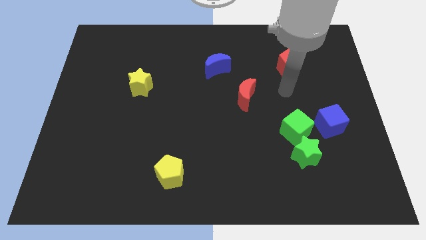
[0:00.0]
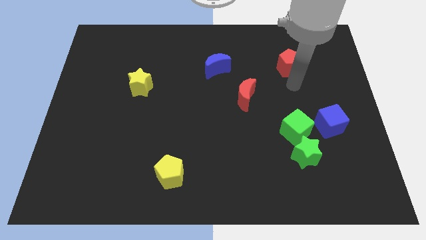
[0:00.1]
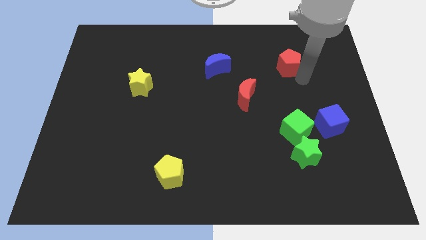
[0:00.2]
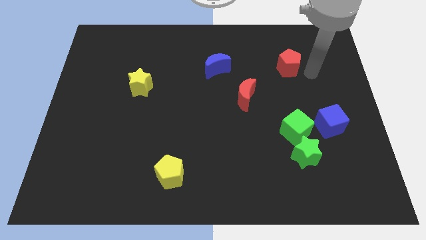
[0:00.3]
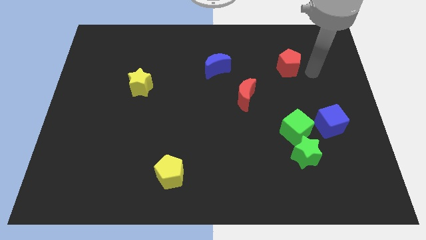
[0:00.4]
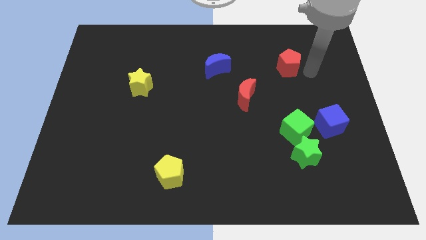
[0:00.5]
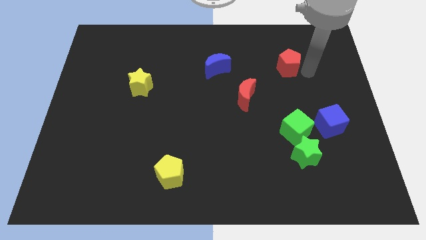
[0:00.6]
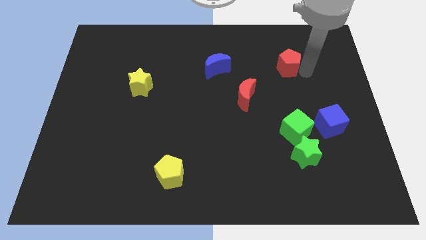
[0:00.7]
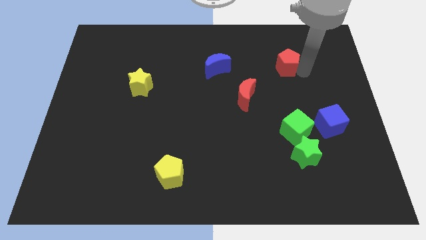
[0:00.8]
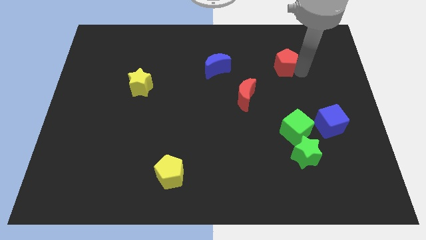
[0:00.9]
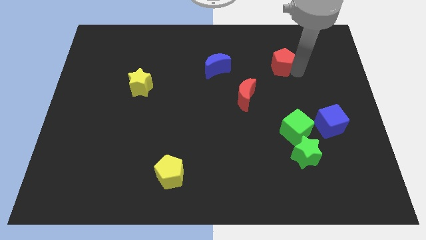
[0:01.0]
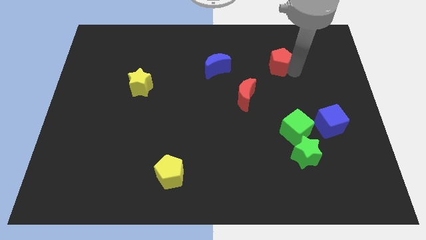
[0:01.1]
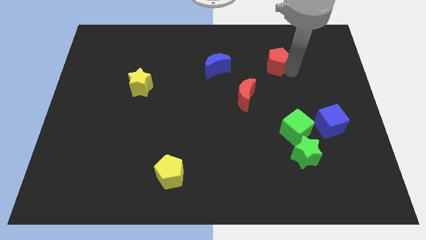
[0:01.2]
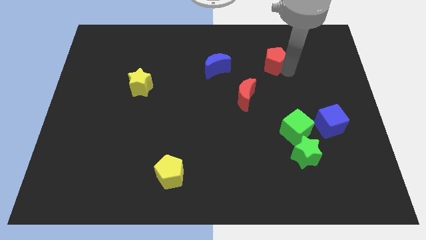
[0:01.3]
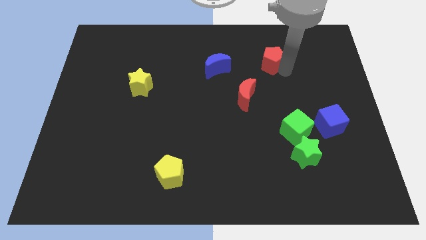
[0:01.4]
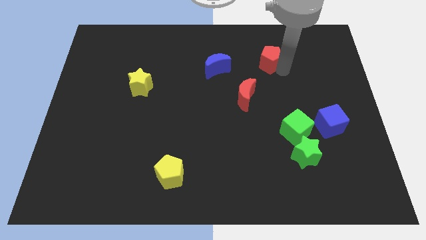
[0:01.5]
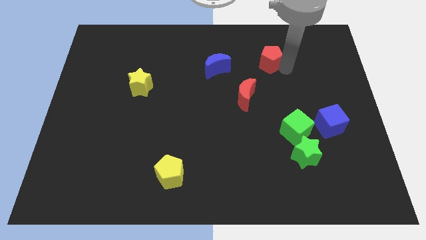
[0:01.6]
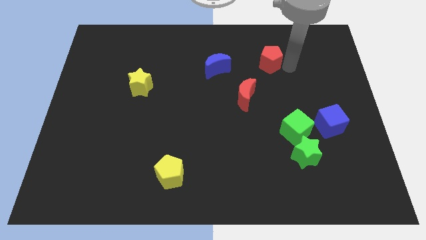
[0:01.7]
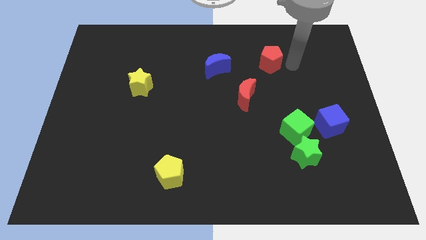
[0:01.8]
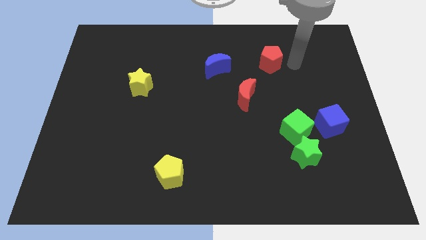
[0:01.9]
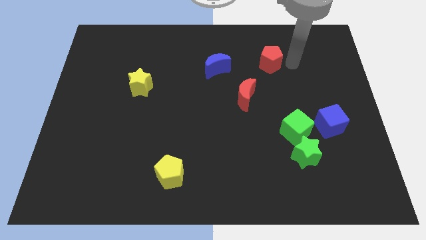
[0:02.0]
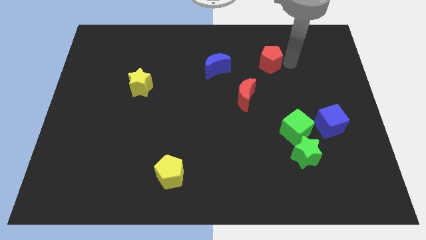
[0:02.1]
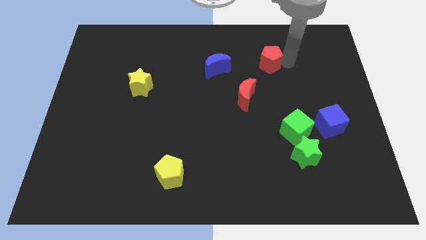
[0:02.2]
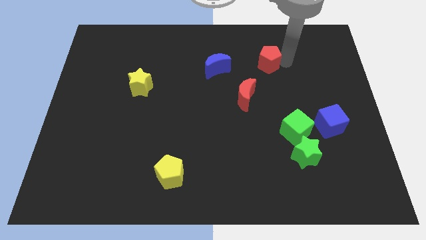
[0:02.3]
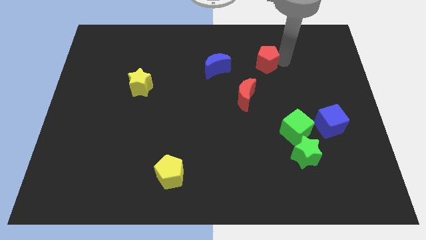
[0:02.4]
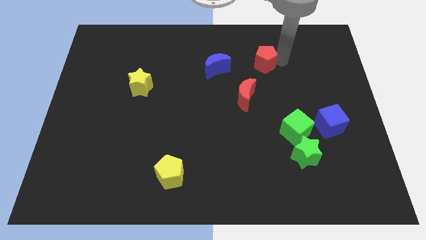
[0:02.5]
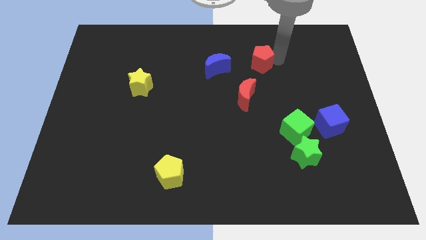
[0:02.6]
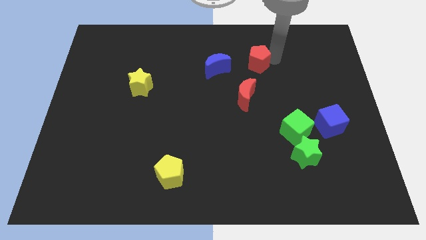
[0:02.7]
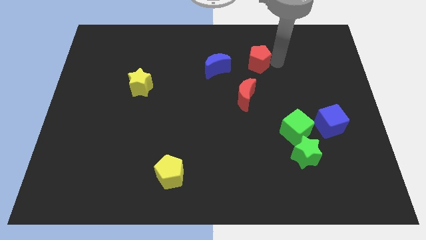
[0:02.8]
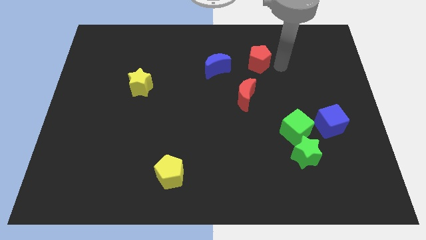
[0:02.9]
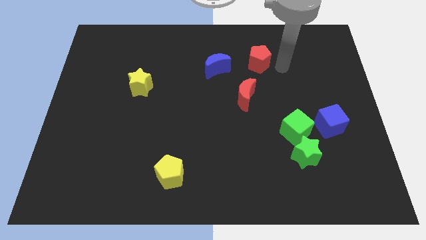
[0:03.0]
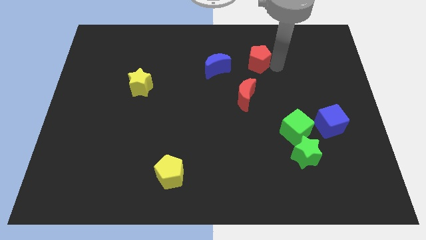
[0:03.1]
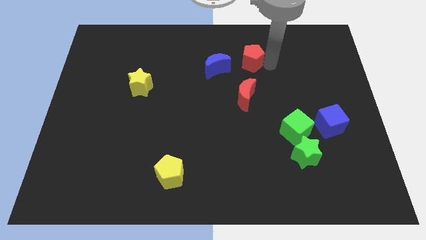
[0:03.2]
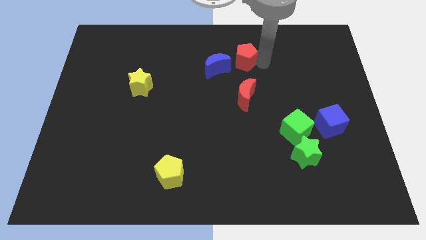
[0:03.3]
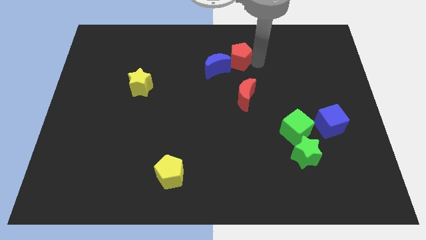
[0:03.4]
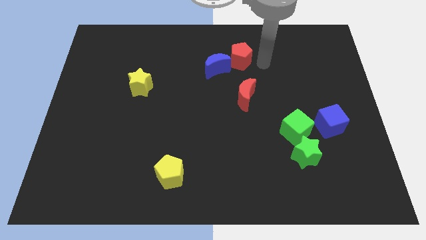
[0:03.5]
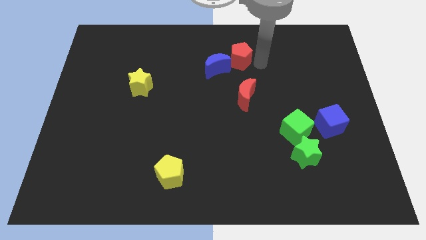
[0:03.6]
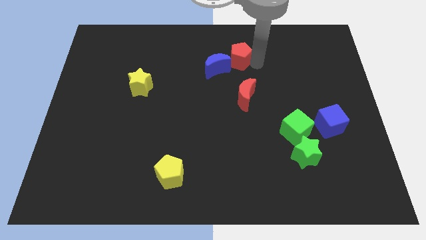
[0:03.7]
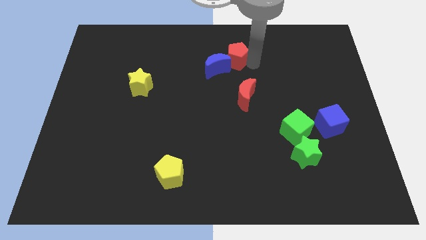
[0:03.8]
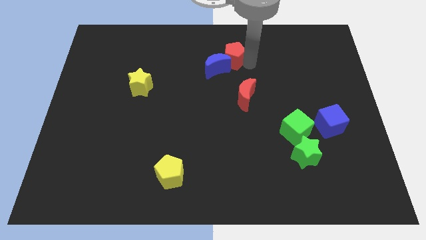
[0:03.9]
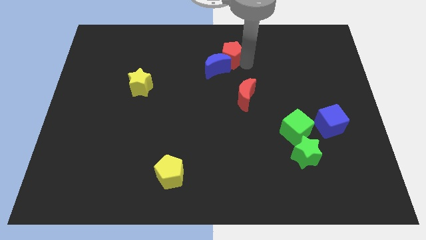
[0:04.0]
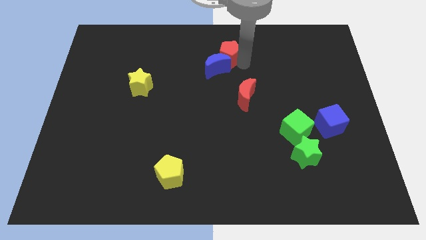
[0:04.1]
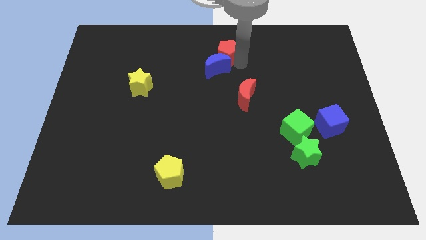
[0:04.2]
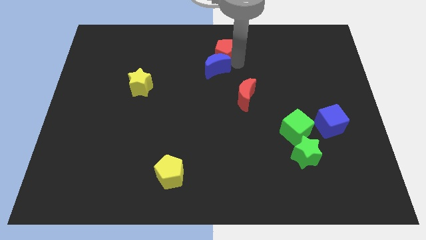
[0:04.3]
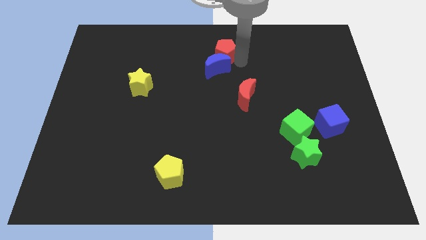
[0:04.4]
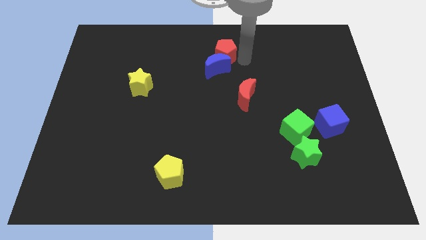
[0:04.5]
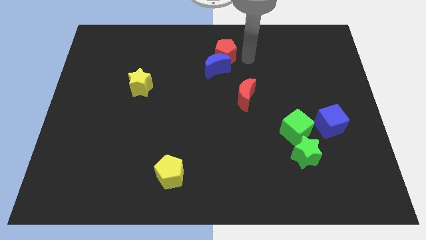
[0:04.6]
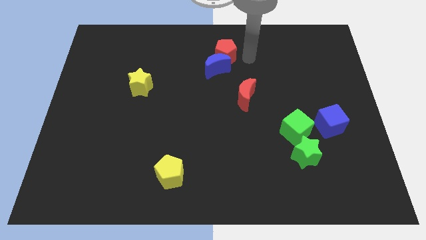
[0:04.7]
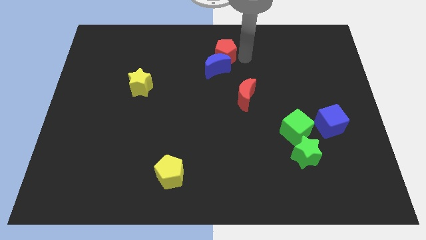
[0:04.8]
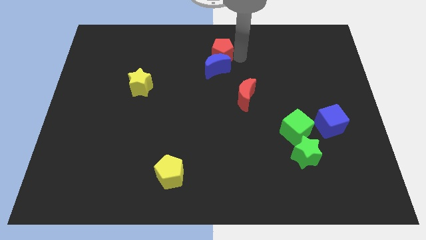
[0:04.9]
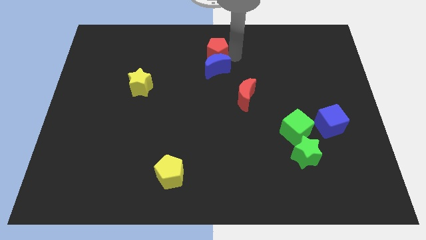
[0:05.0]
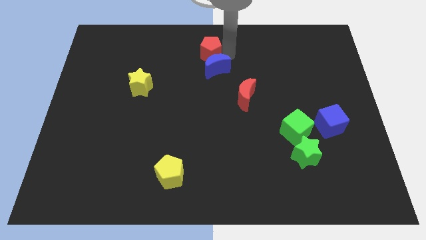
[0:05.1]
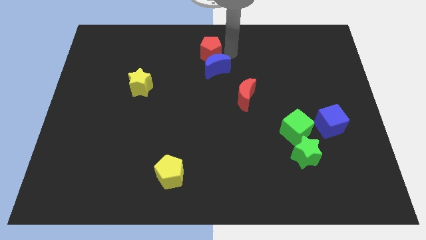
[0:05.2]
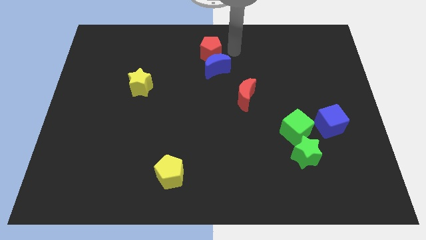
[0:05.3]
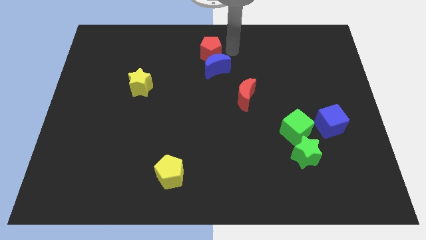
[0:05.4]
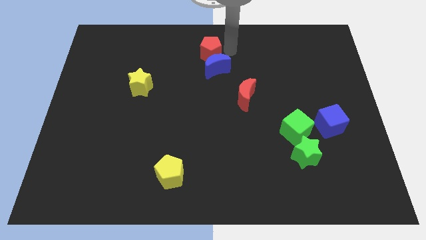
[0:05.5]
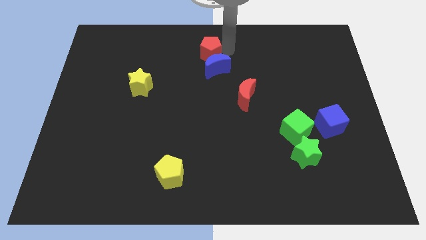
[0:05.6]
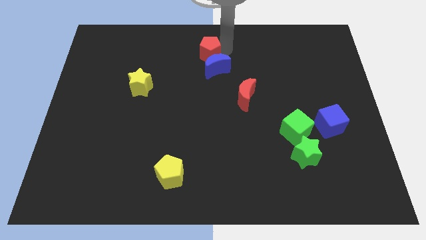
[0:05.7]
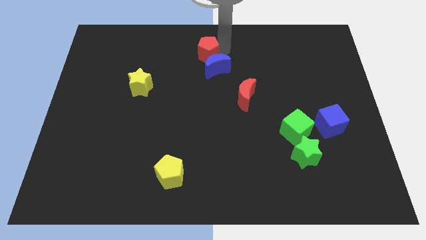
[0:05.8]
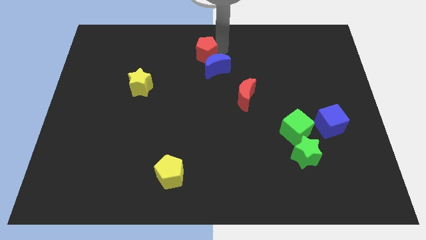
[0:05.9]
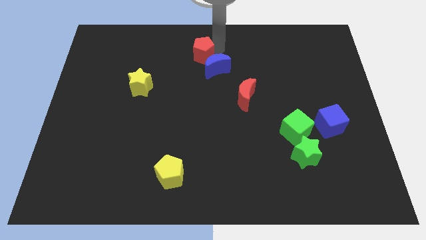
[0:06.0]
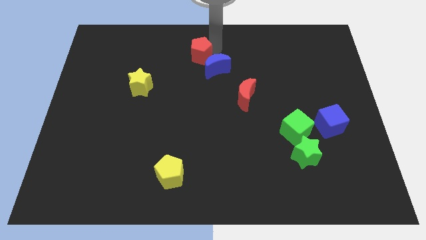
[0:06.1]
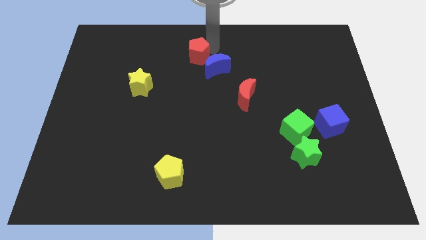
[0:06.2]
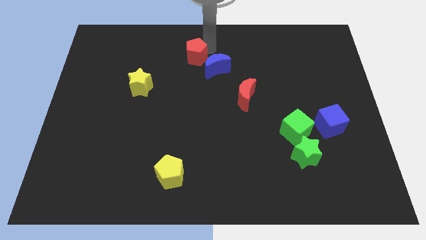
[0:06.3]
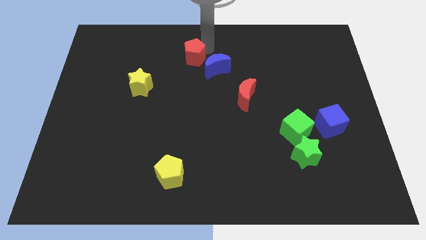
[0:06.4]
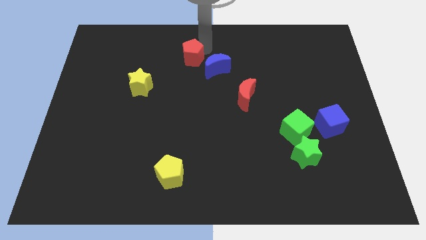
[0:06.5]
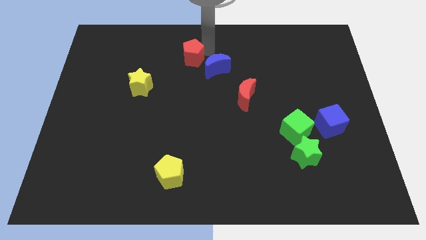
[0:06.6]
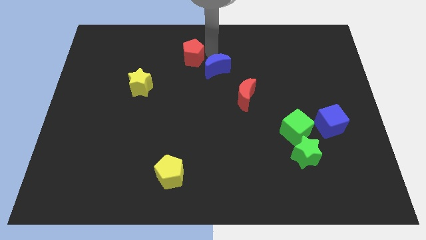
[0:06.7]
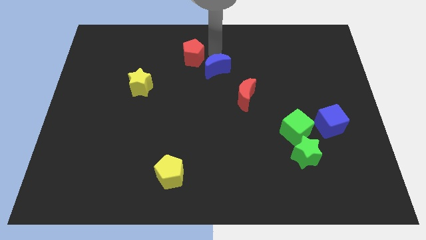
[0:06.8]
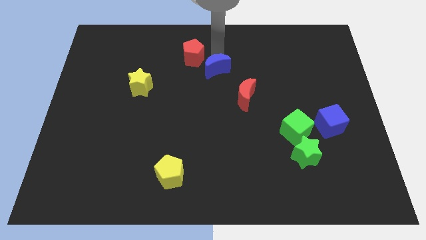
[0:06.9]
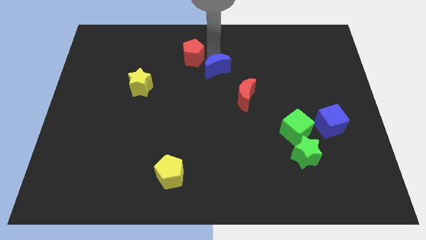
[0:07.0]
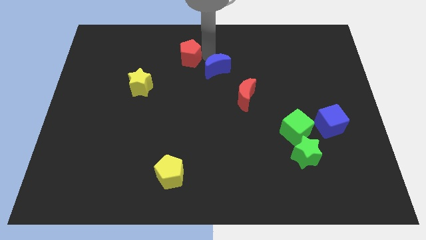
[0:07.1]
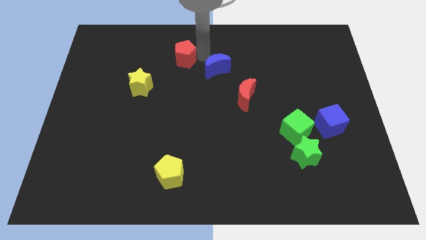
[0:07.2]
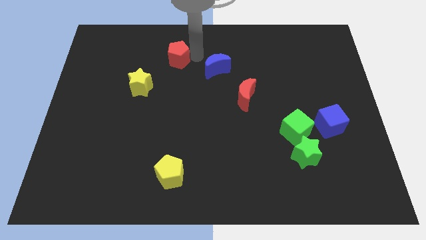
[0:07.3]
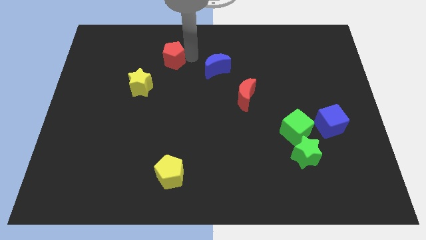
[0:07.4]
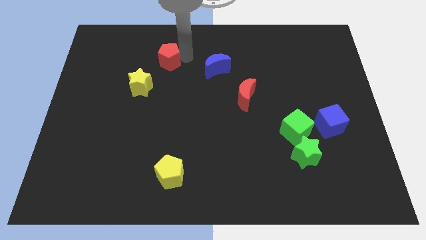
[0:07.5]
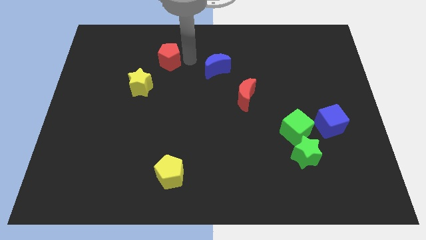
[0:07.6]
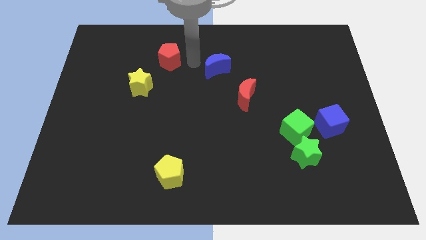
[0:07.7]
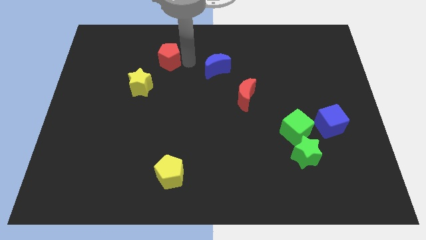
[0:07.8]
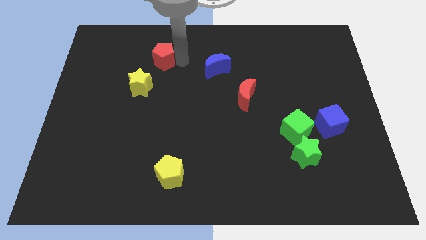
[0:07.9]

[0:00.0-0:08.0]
push the red pentagon above the yellow star
